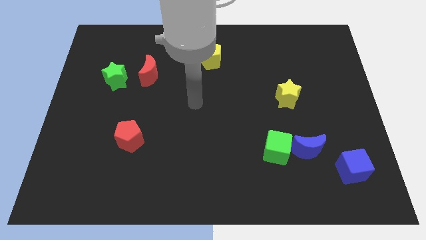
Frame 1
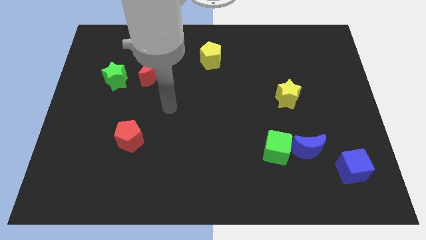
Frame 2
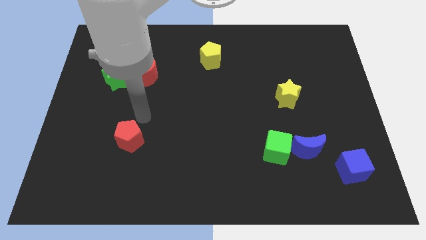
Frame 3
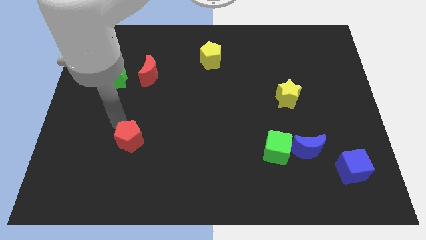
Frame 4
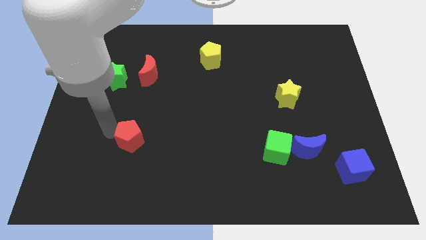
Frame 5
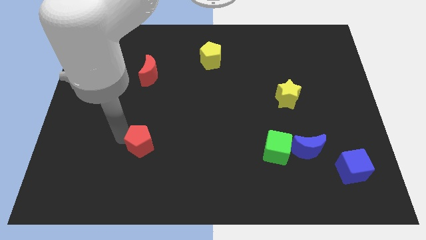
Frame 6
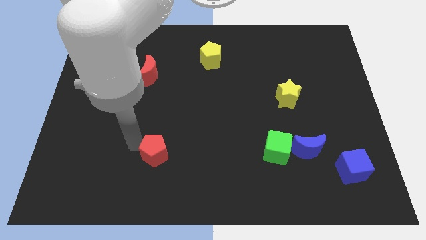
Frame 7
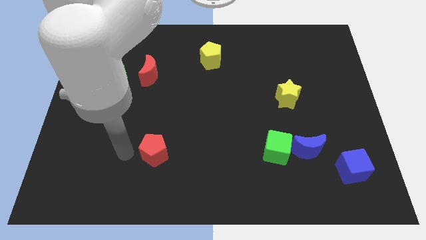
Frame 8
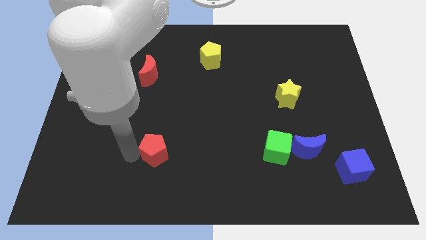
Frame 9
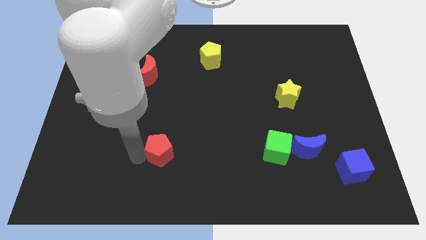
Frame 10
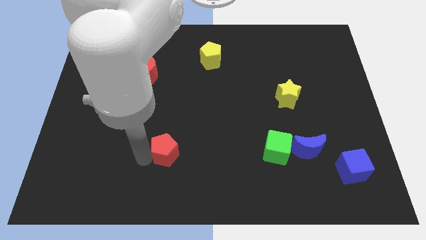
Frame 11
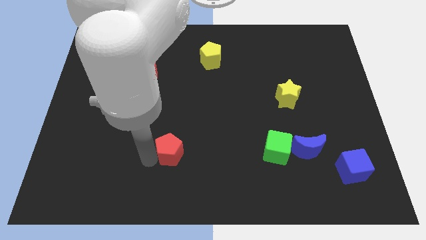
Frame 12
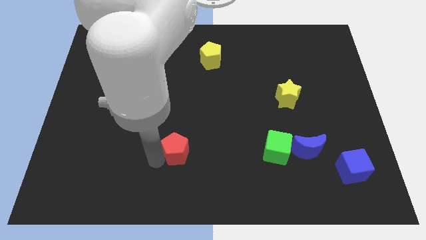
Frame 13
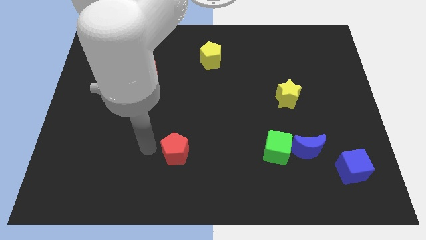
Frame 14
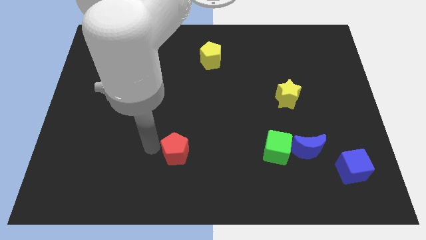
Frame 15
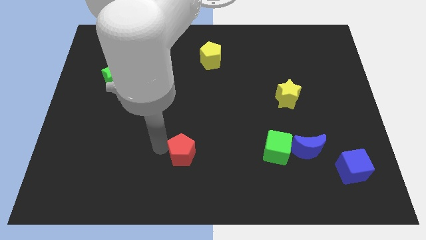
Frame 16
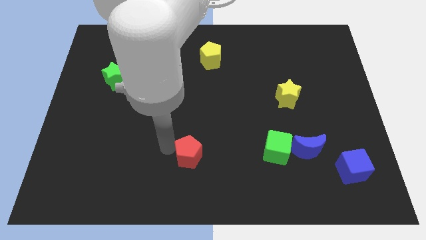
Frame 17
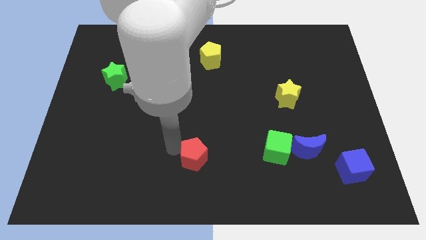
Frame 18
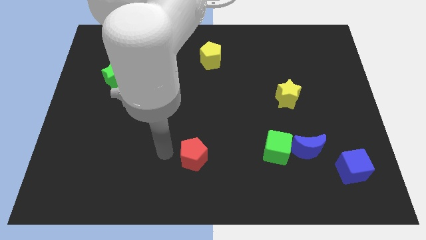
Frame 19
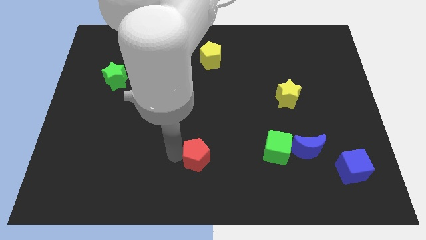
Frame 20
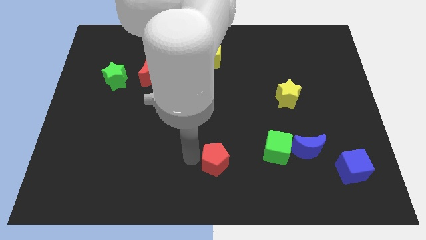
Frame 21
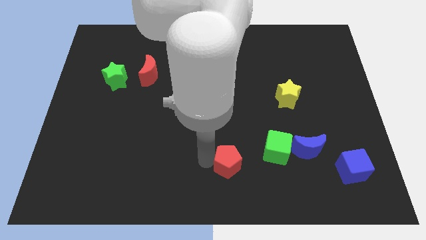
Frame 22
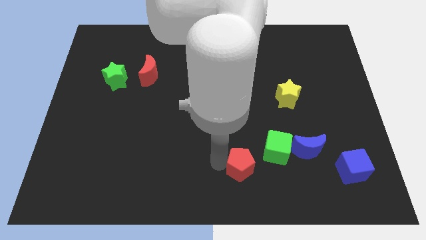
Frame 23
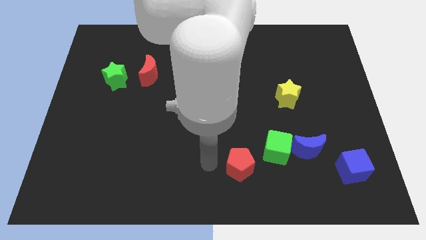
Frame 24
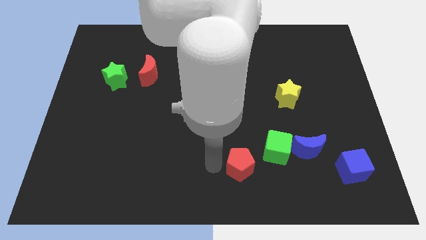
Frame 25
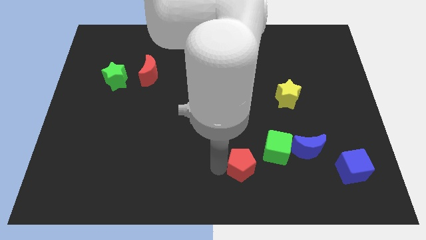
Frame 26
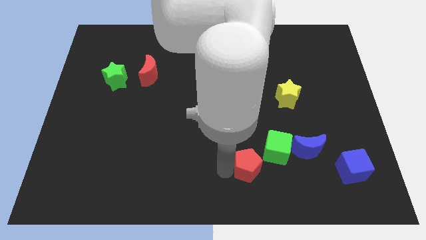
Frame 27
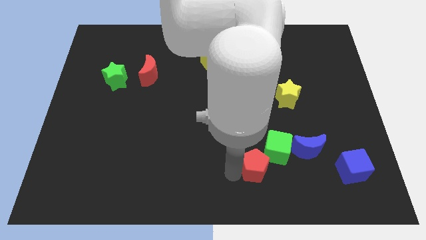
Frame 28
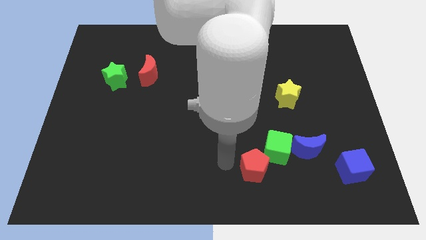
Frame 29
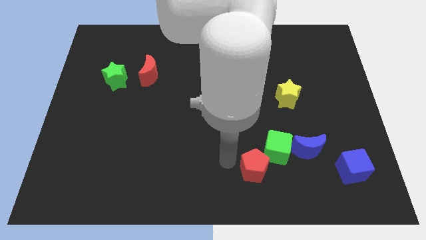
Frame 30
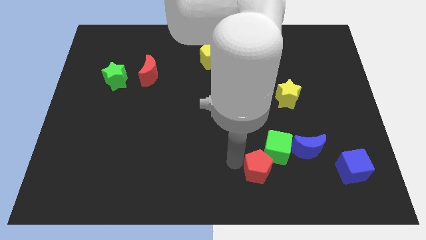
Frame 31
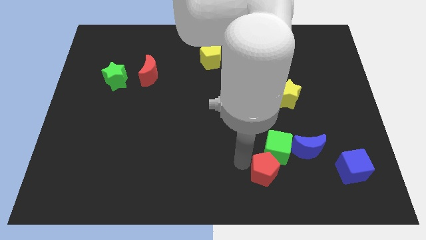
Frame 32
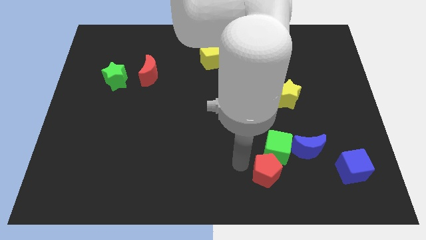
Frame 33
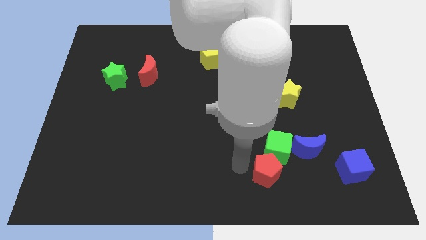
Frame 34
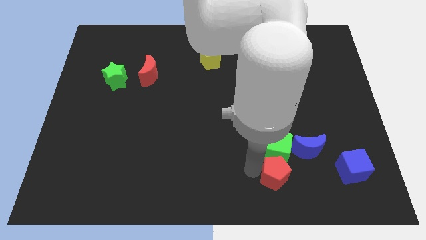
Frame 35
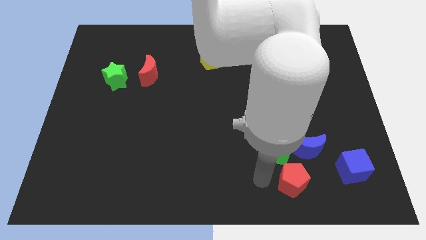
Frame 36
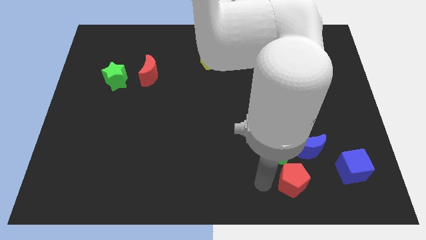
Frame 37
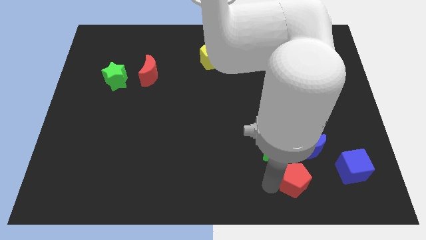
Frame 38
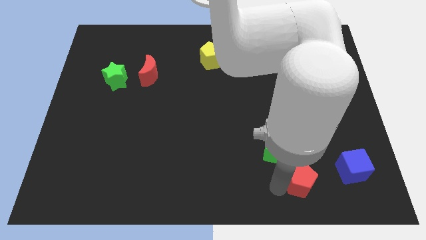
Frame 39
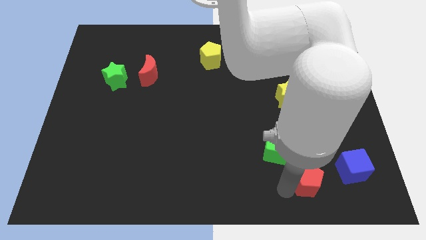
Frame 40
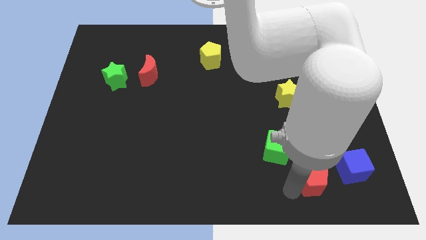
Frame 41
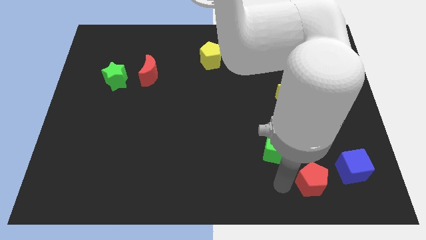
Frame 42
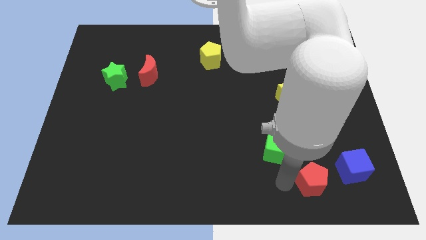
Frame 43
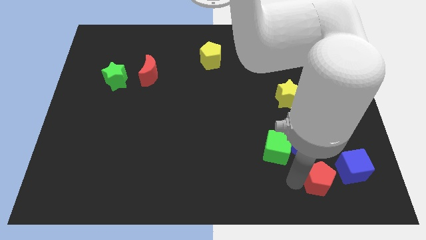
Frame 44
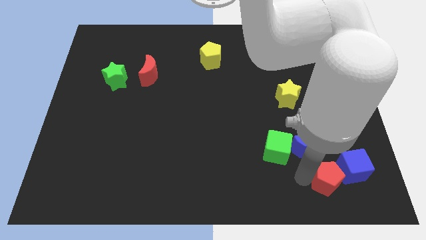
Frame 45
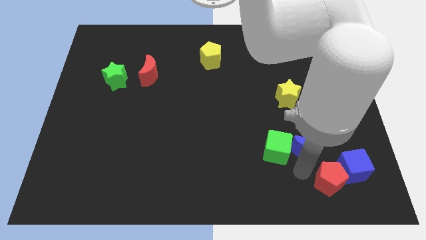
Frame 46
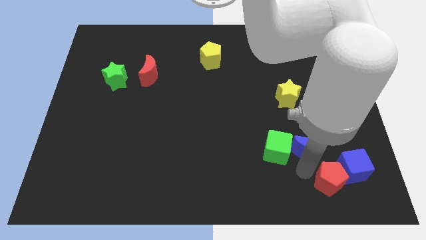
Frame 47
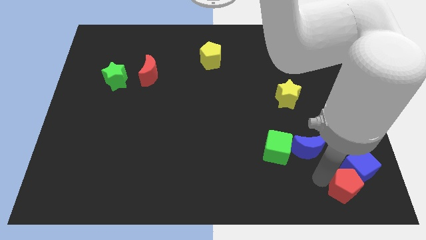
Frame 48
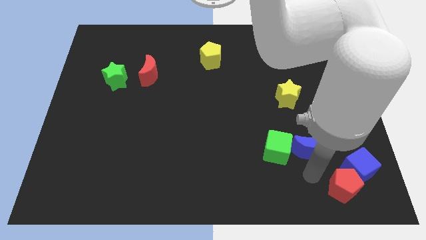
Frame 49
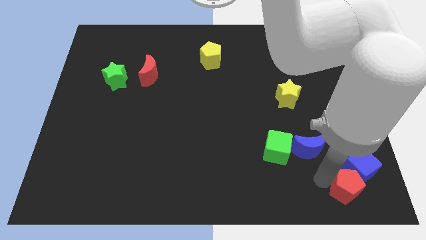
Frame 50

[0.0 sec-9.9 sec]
slide the red pentagon to the bottom right of the board
